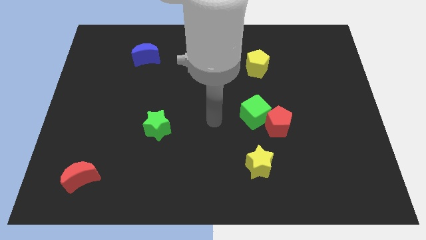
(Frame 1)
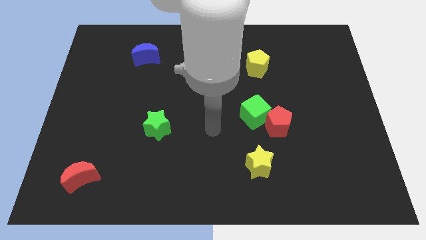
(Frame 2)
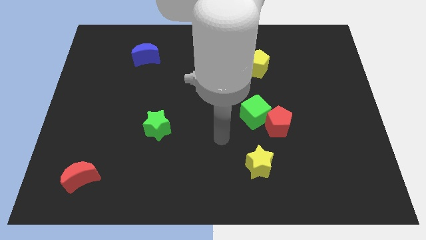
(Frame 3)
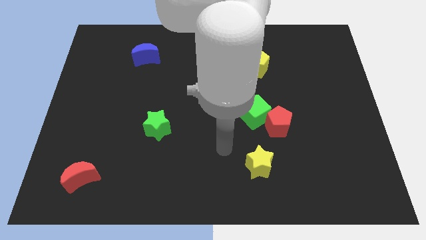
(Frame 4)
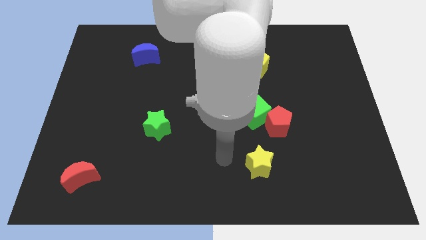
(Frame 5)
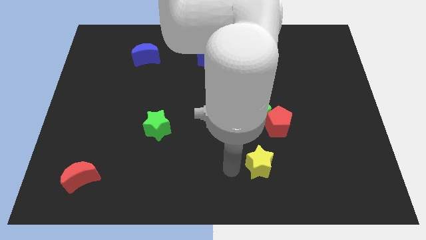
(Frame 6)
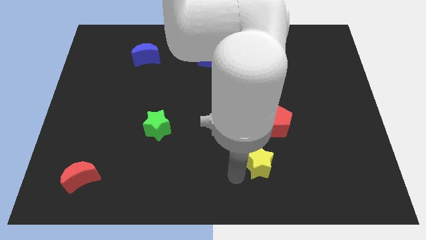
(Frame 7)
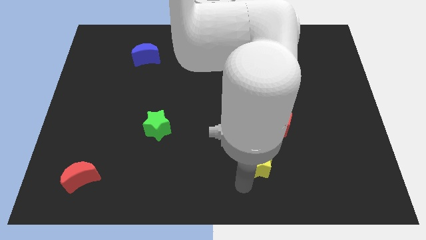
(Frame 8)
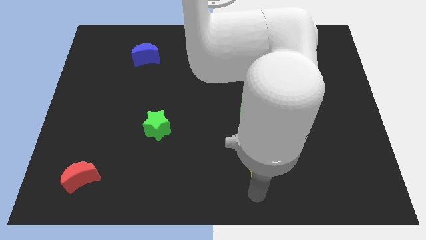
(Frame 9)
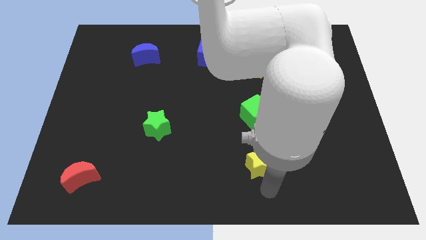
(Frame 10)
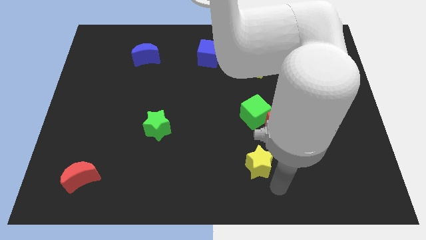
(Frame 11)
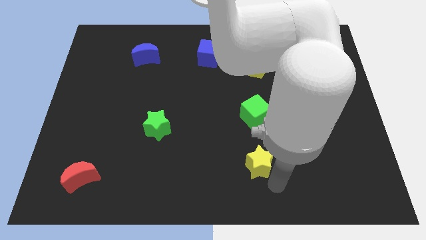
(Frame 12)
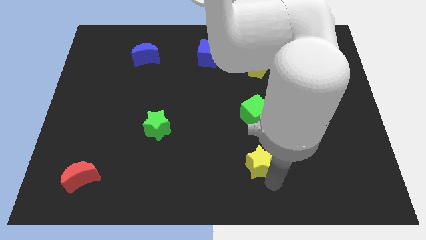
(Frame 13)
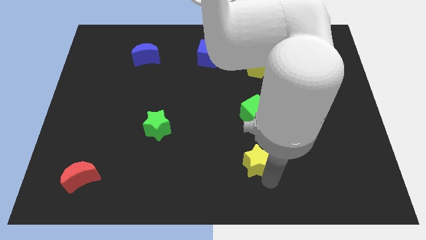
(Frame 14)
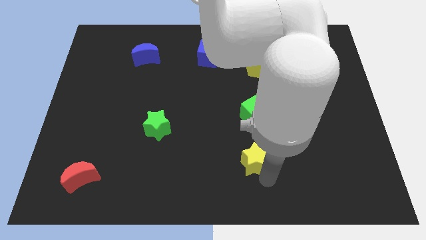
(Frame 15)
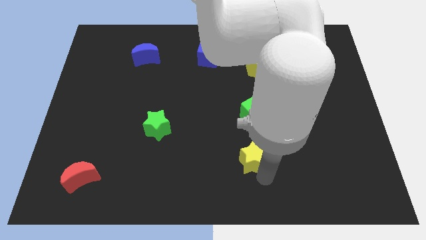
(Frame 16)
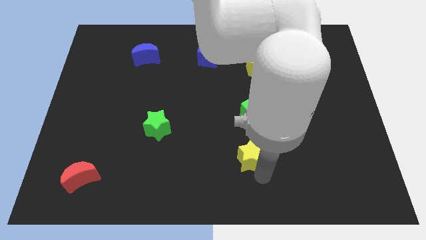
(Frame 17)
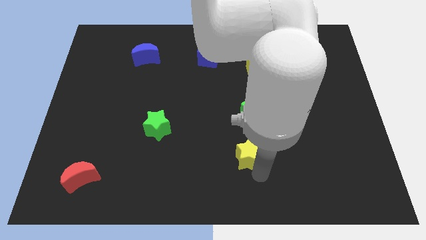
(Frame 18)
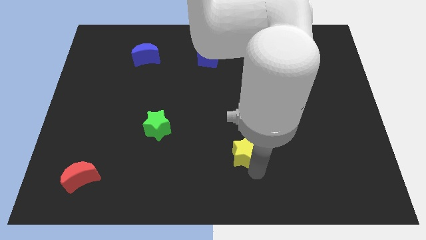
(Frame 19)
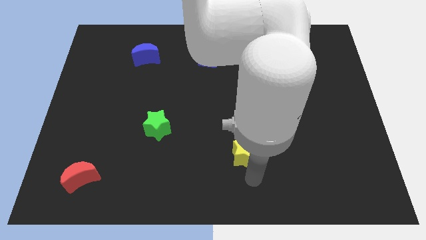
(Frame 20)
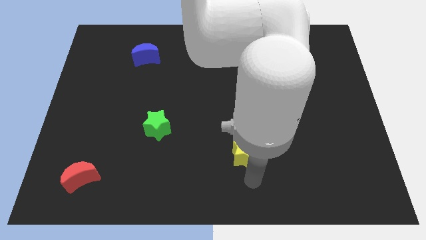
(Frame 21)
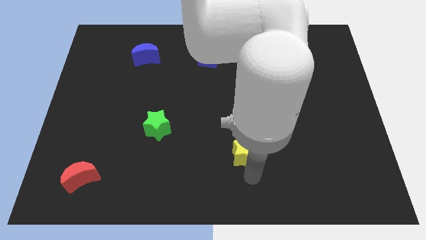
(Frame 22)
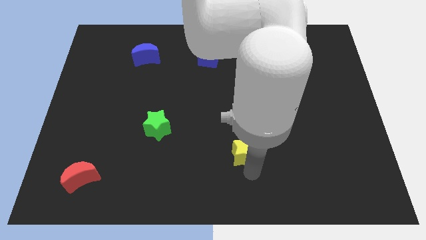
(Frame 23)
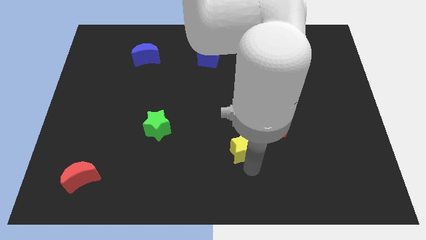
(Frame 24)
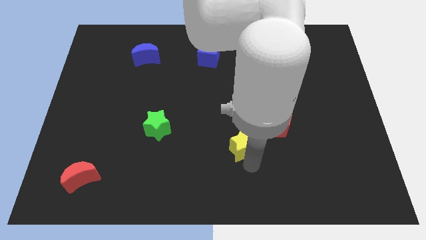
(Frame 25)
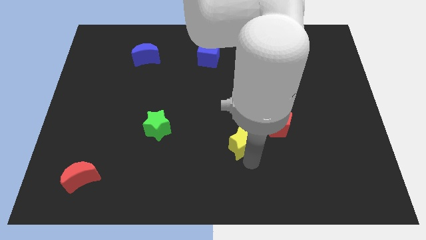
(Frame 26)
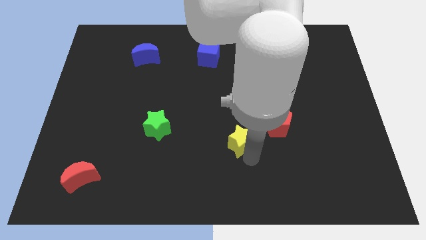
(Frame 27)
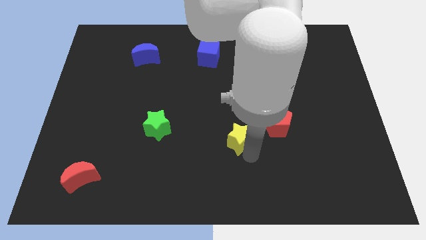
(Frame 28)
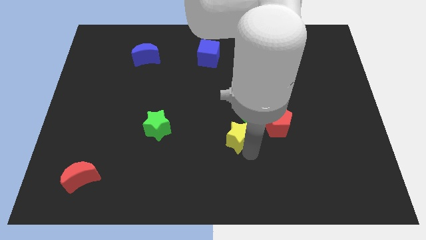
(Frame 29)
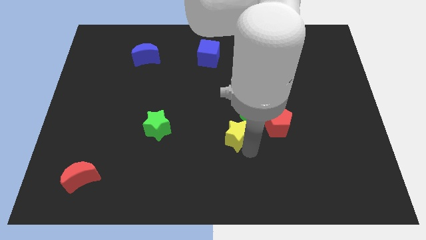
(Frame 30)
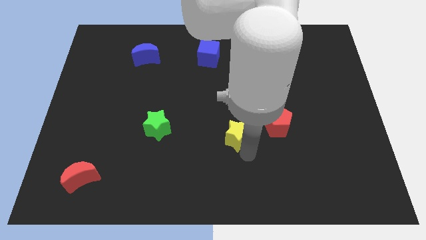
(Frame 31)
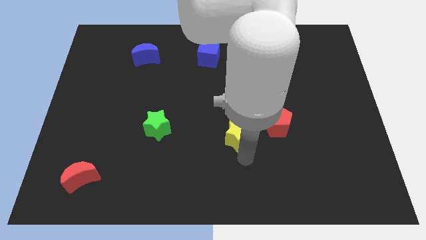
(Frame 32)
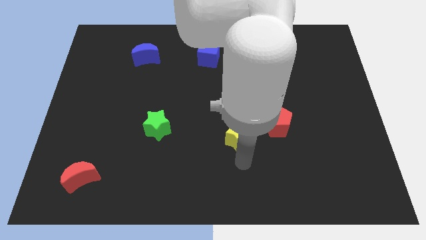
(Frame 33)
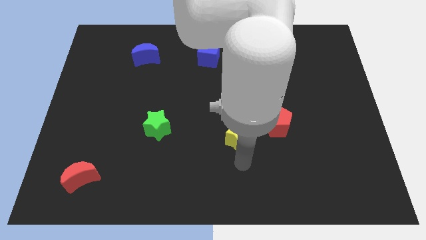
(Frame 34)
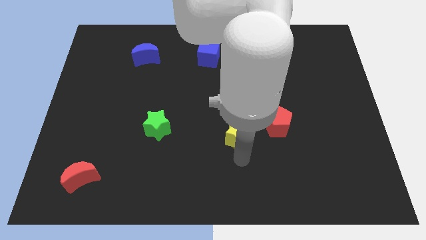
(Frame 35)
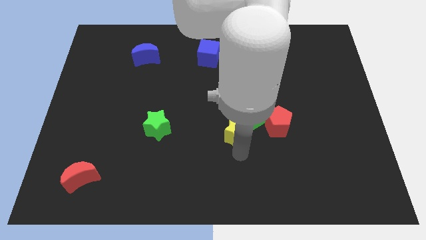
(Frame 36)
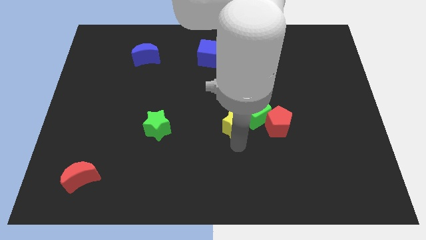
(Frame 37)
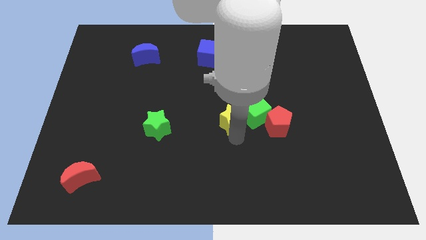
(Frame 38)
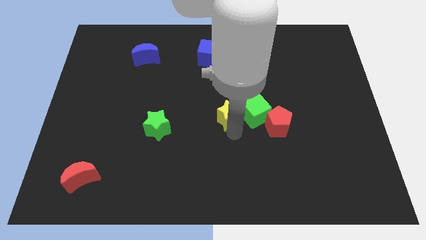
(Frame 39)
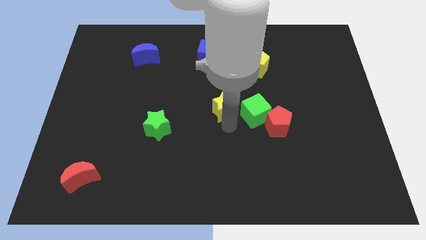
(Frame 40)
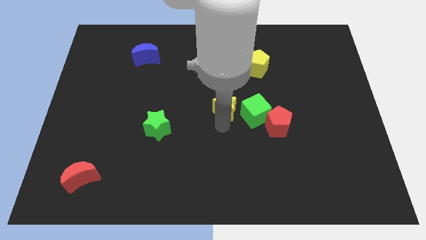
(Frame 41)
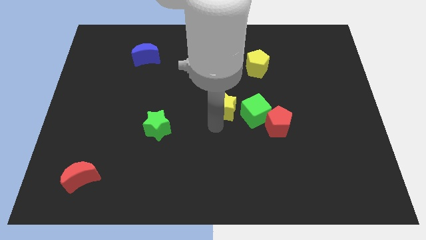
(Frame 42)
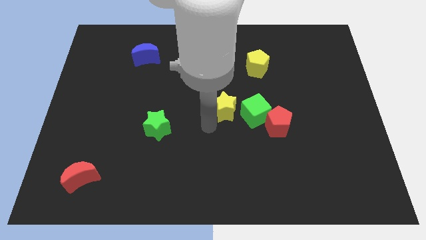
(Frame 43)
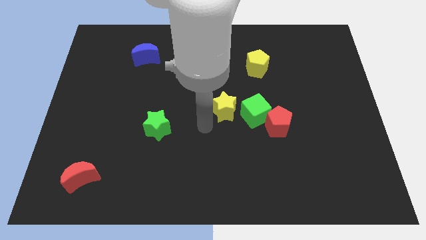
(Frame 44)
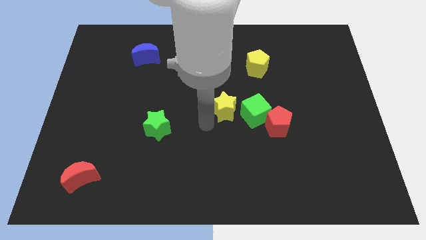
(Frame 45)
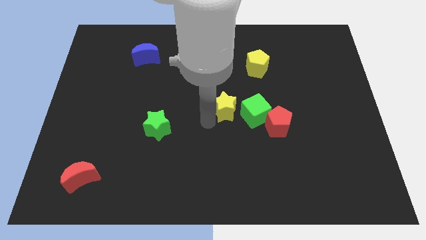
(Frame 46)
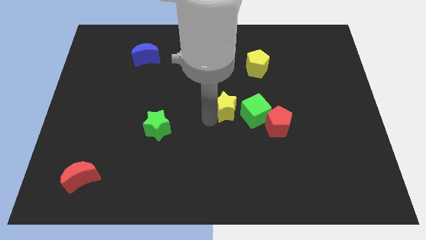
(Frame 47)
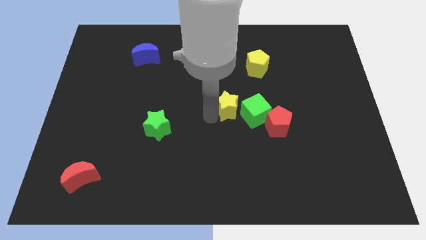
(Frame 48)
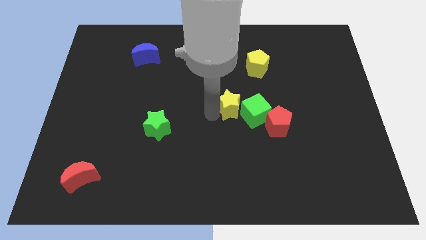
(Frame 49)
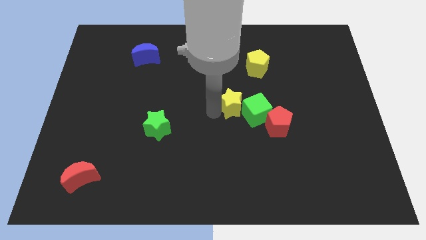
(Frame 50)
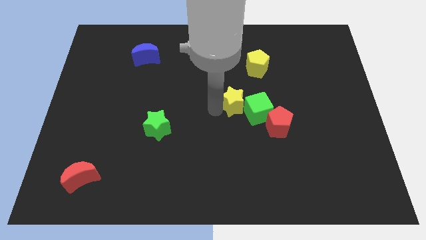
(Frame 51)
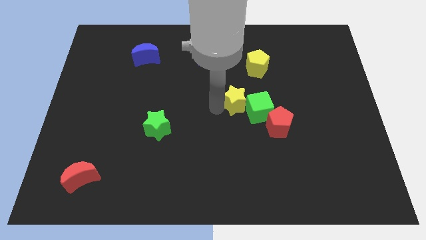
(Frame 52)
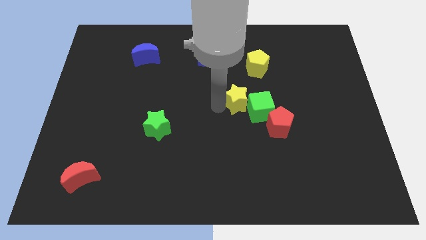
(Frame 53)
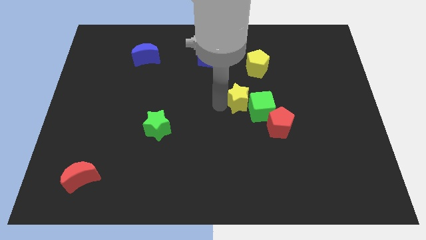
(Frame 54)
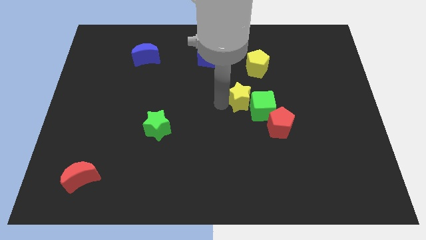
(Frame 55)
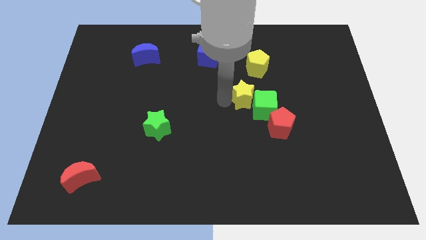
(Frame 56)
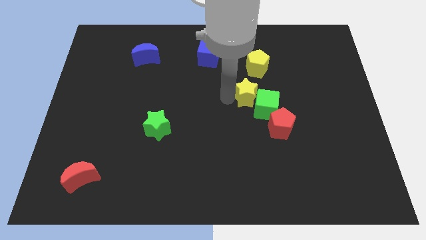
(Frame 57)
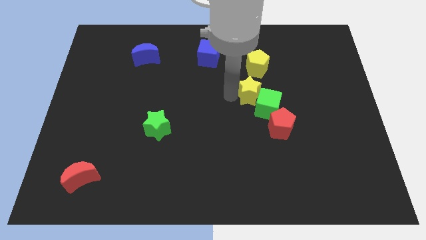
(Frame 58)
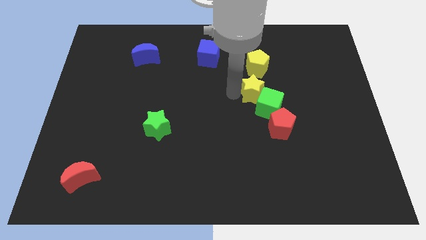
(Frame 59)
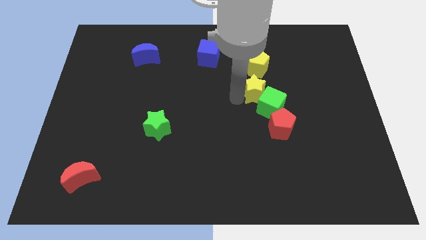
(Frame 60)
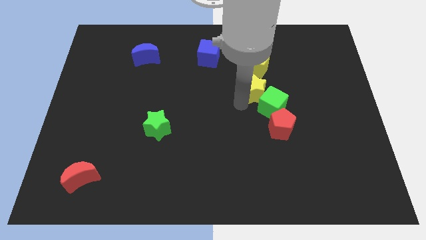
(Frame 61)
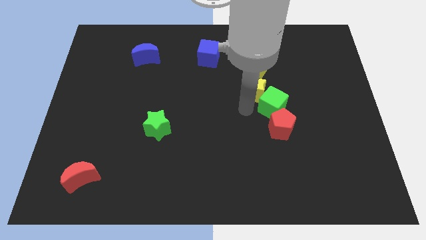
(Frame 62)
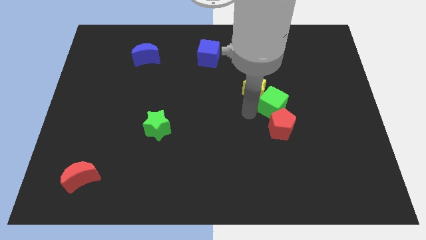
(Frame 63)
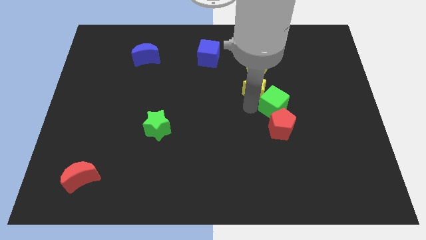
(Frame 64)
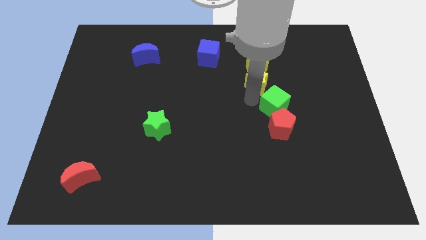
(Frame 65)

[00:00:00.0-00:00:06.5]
move the yellow star next to the yellow pentagon

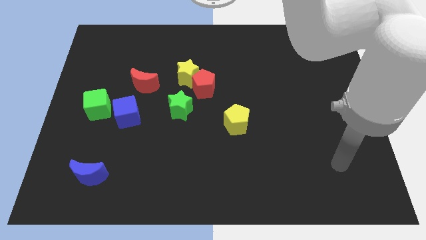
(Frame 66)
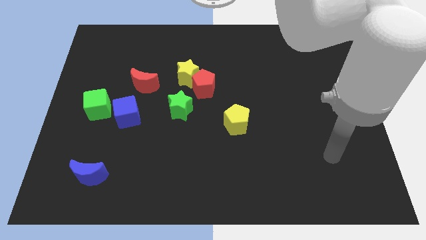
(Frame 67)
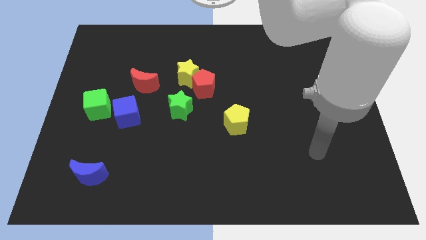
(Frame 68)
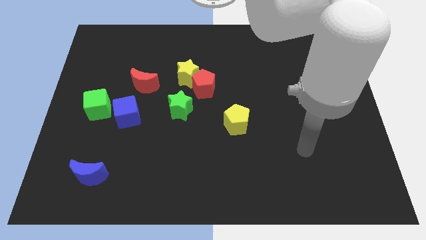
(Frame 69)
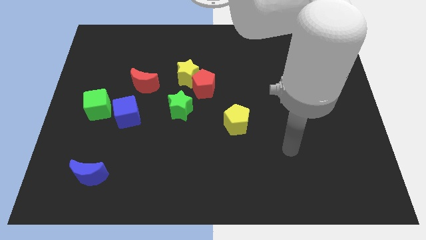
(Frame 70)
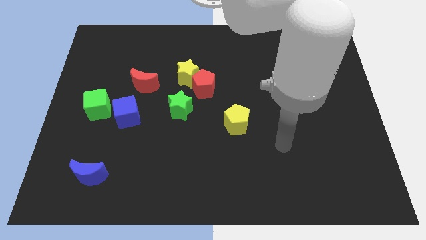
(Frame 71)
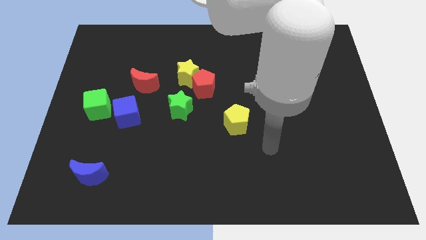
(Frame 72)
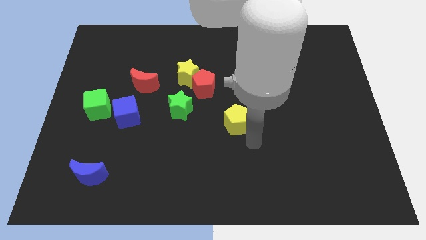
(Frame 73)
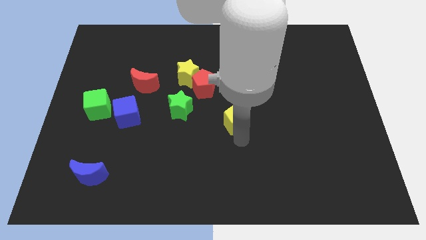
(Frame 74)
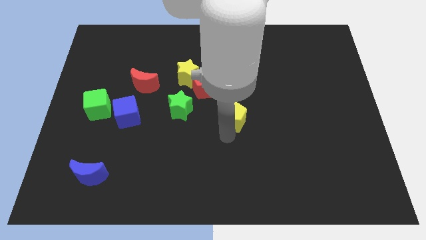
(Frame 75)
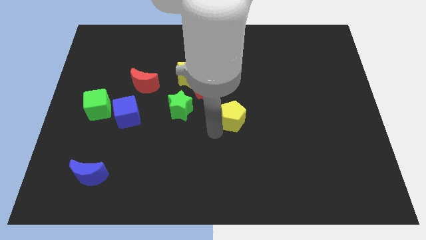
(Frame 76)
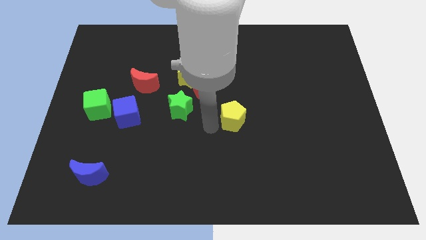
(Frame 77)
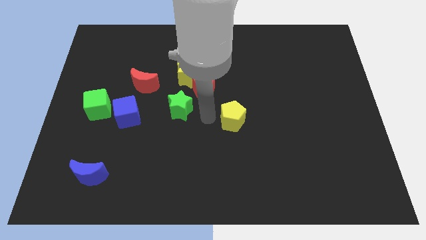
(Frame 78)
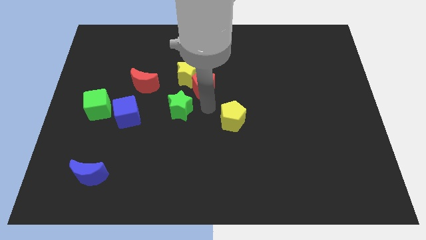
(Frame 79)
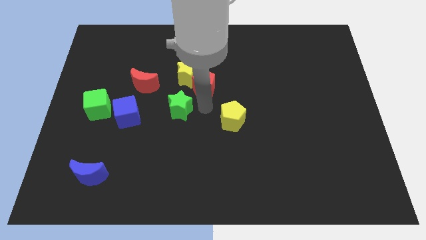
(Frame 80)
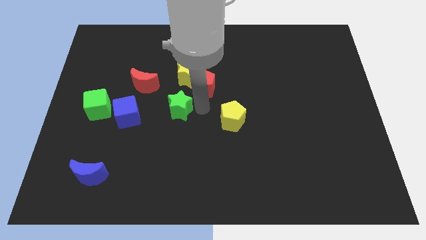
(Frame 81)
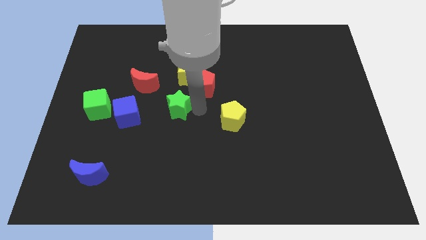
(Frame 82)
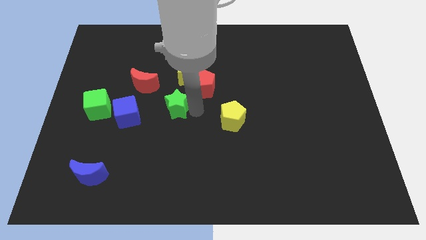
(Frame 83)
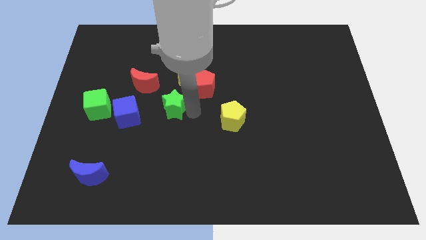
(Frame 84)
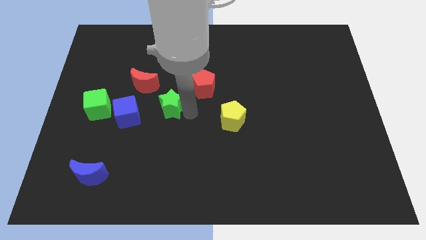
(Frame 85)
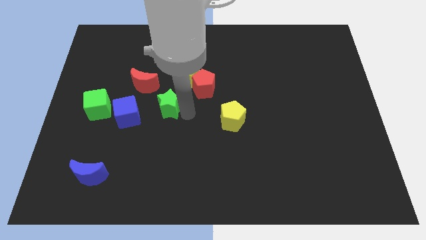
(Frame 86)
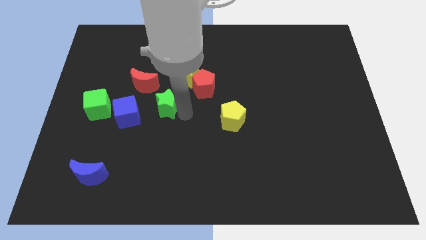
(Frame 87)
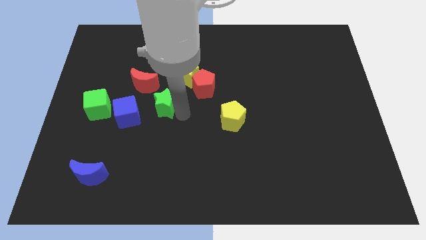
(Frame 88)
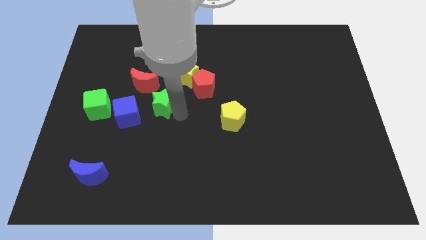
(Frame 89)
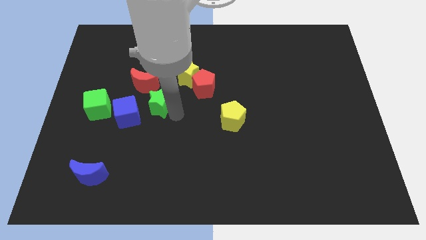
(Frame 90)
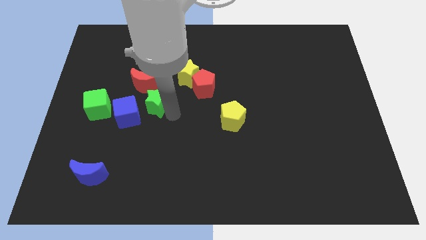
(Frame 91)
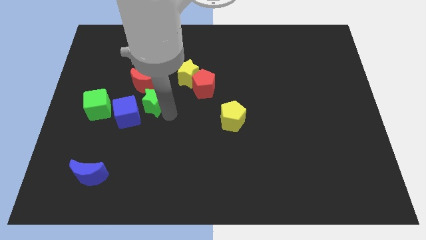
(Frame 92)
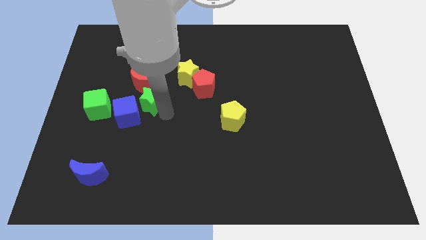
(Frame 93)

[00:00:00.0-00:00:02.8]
move the green star towards the blue cube
